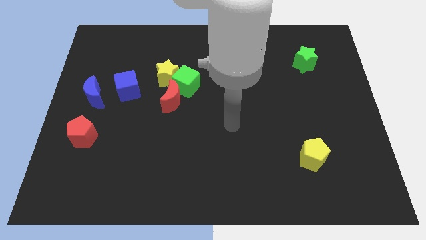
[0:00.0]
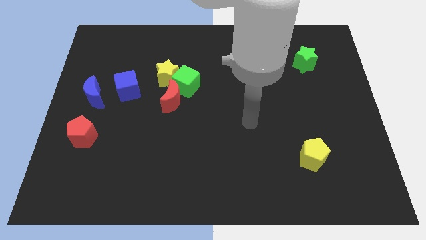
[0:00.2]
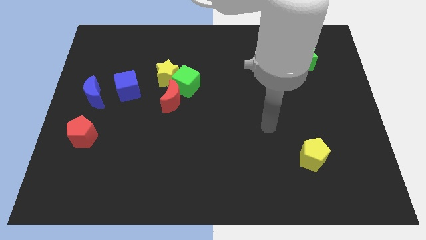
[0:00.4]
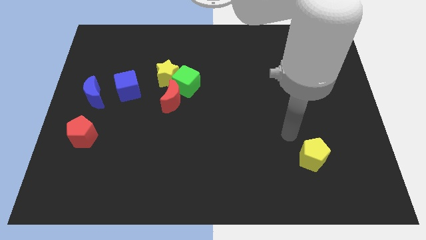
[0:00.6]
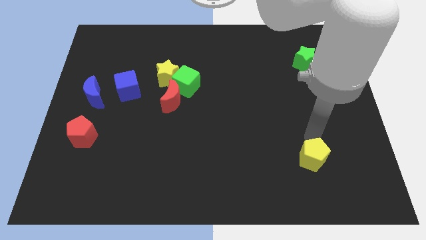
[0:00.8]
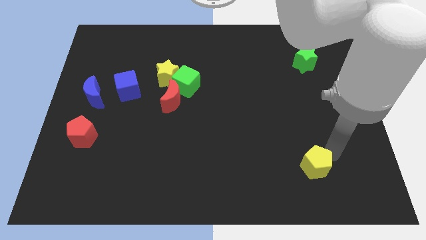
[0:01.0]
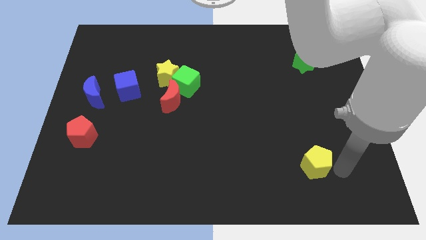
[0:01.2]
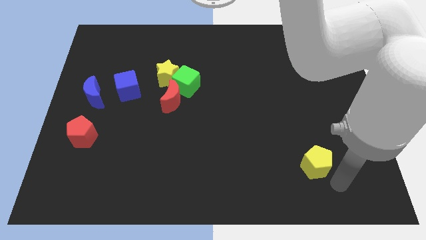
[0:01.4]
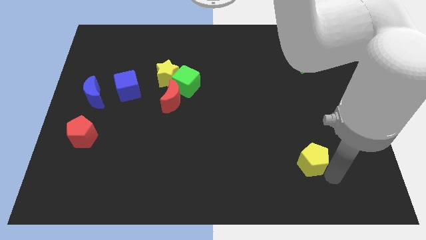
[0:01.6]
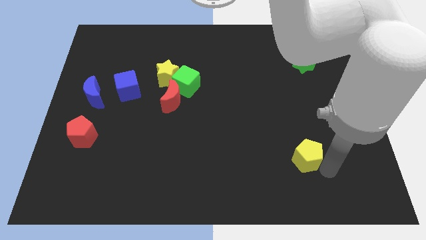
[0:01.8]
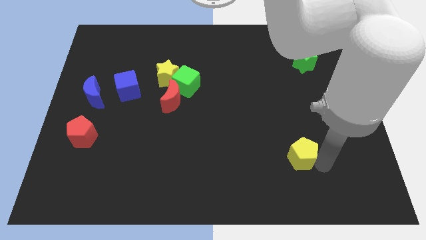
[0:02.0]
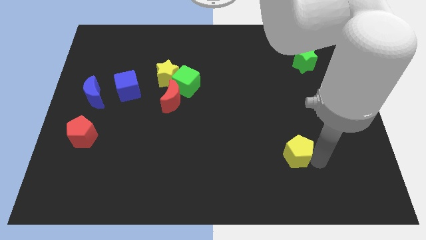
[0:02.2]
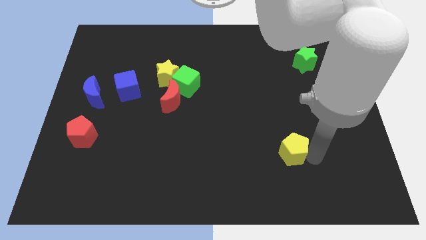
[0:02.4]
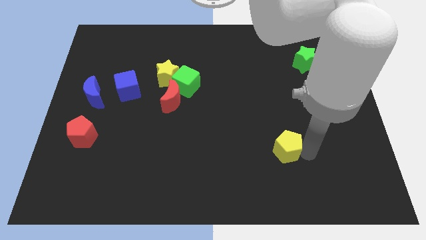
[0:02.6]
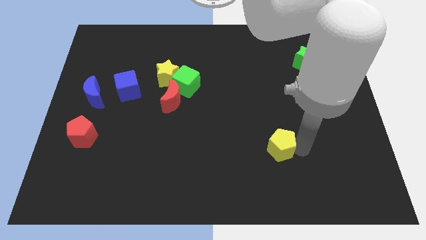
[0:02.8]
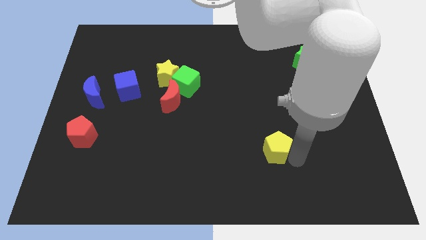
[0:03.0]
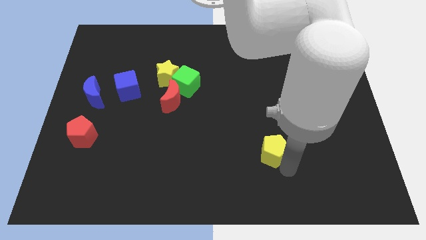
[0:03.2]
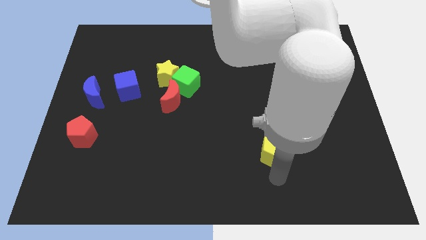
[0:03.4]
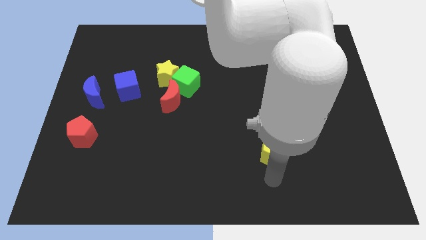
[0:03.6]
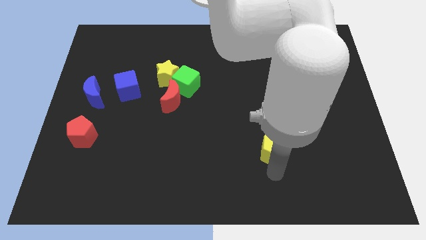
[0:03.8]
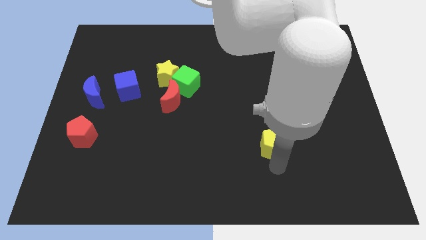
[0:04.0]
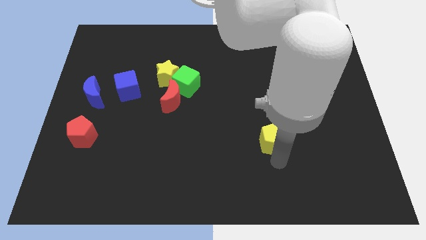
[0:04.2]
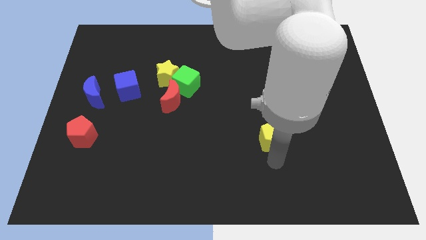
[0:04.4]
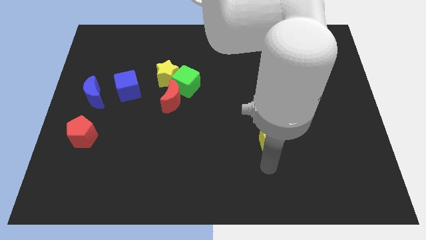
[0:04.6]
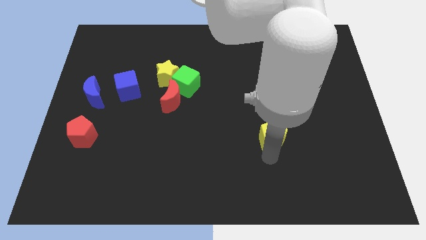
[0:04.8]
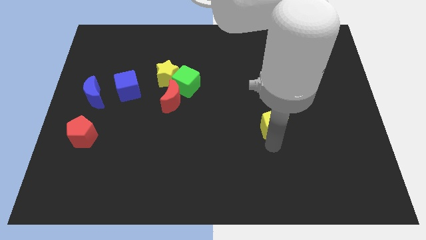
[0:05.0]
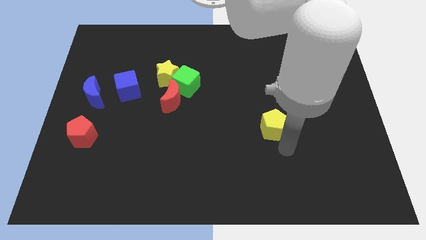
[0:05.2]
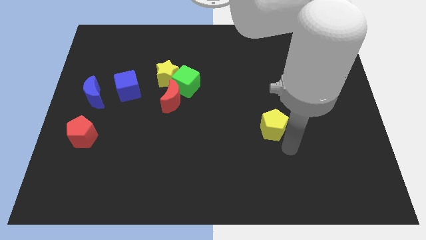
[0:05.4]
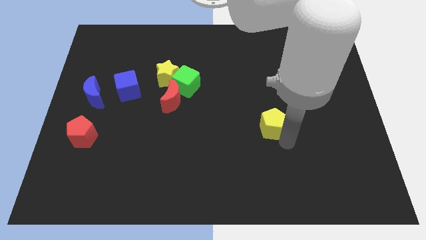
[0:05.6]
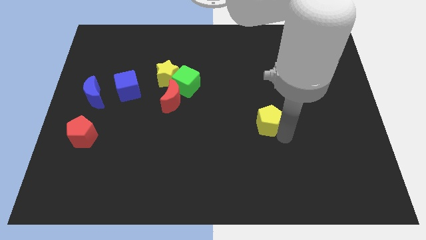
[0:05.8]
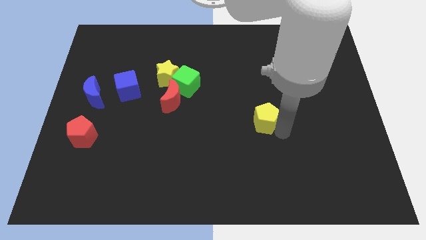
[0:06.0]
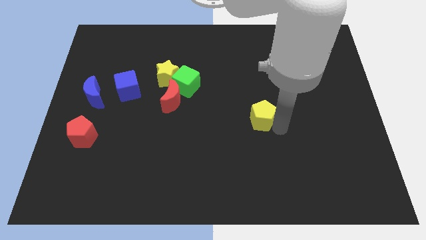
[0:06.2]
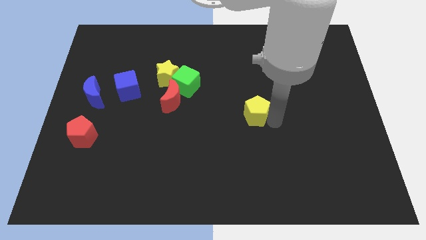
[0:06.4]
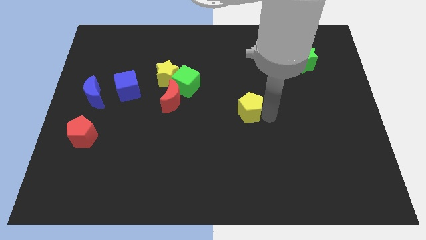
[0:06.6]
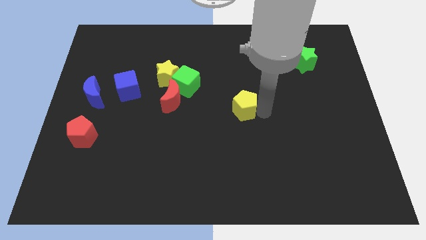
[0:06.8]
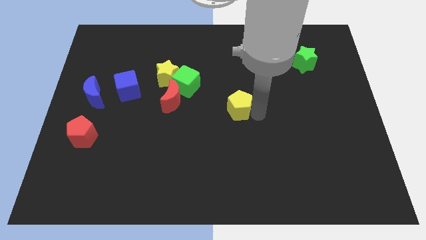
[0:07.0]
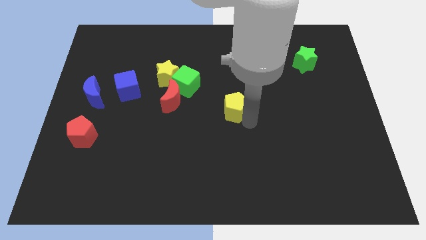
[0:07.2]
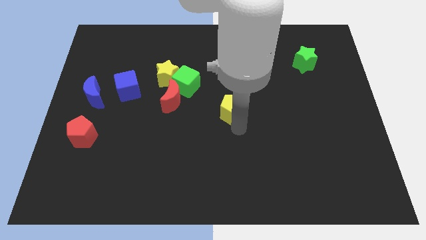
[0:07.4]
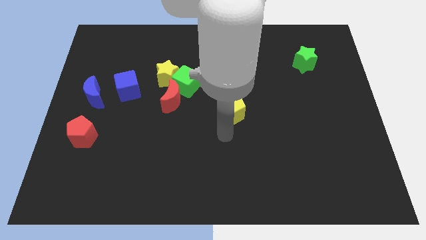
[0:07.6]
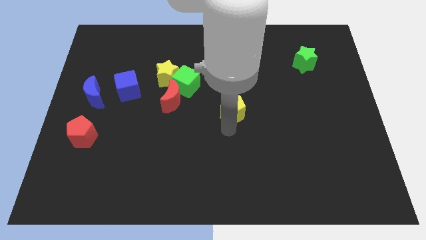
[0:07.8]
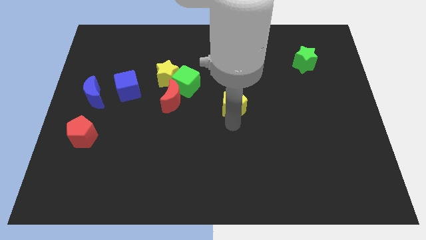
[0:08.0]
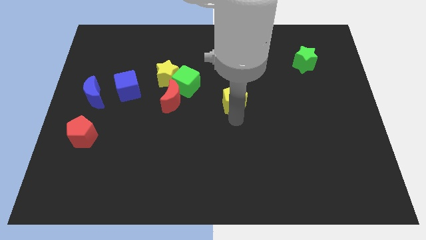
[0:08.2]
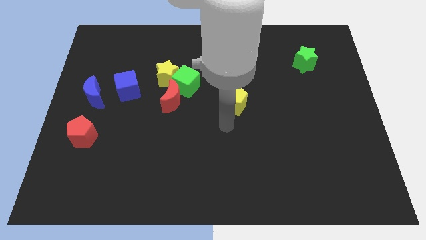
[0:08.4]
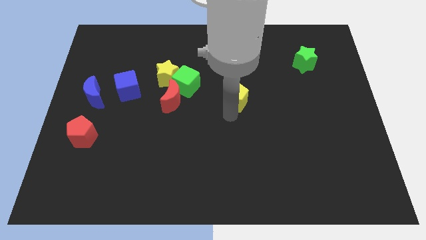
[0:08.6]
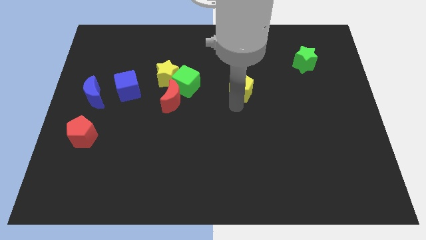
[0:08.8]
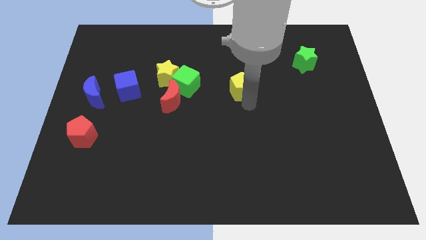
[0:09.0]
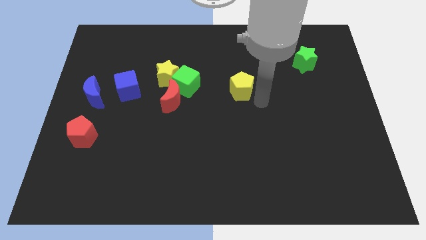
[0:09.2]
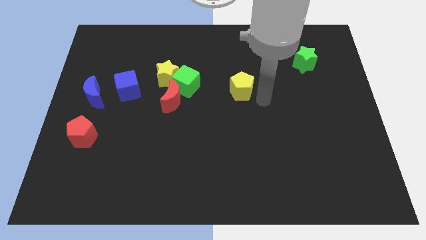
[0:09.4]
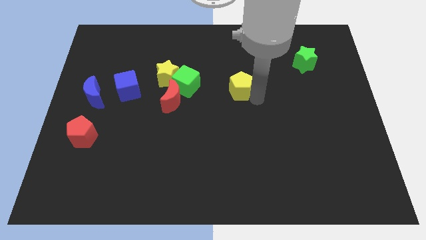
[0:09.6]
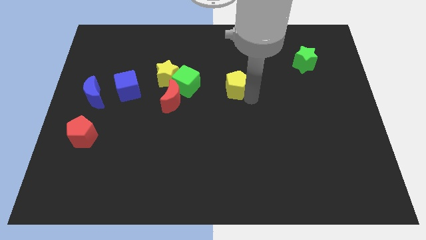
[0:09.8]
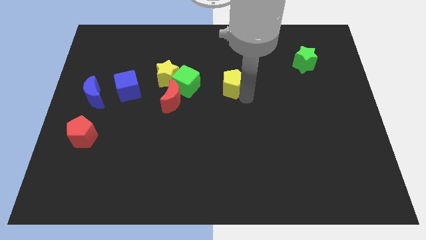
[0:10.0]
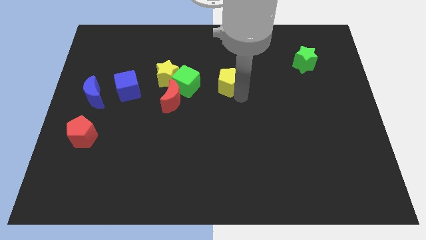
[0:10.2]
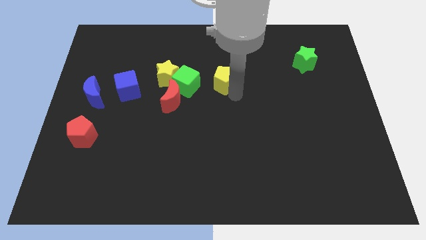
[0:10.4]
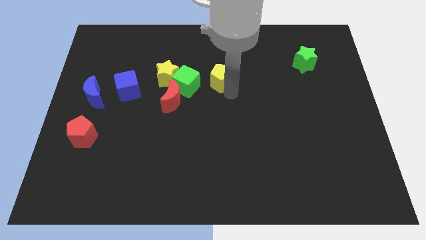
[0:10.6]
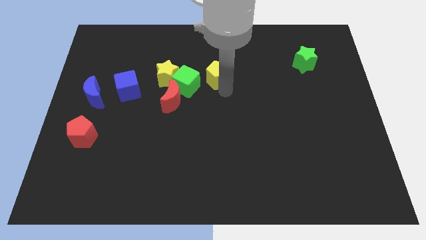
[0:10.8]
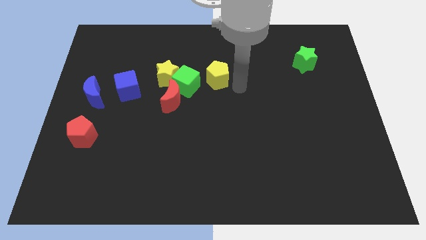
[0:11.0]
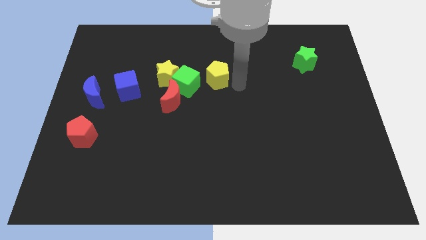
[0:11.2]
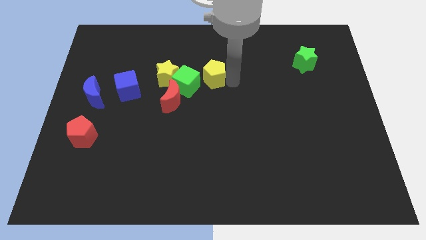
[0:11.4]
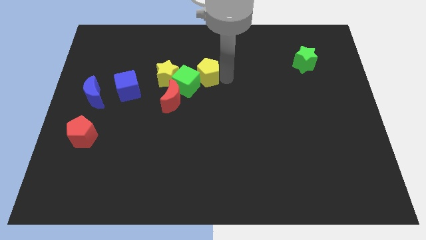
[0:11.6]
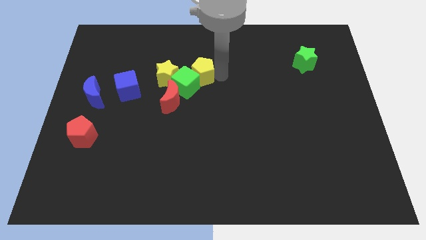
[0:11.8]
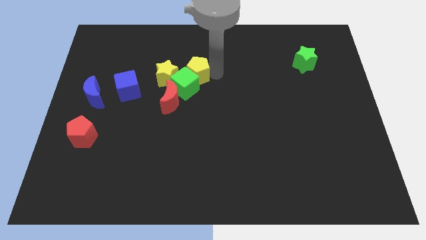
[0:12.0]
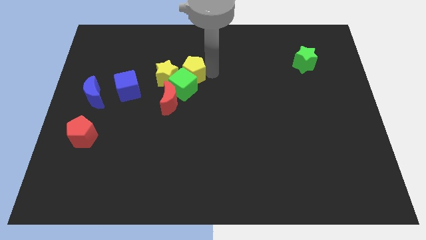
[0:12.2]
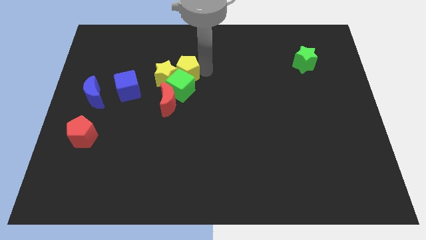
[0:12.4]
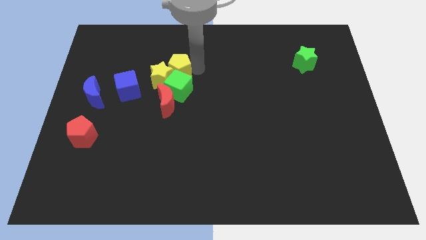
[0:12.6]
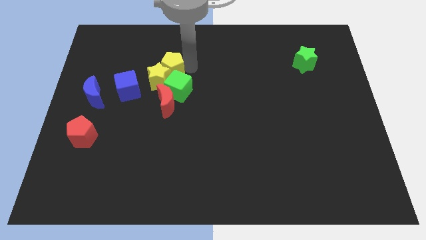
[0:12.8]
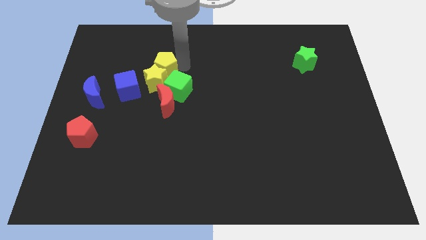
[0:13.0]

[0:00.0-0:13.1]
move the yellow pentagon diagonally up and to the left of the yellow star
